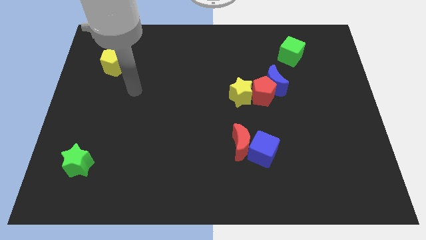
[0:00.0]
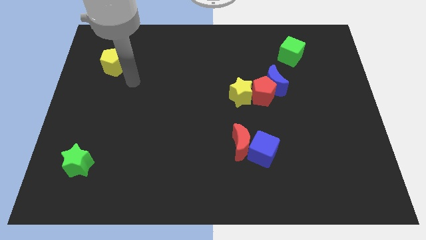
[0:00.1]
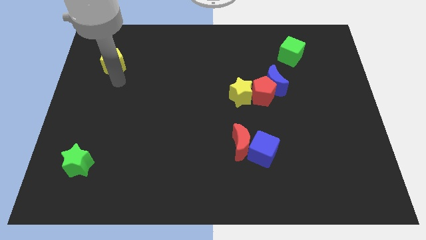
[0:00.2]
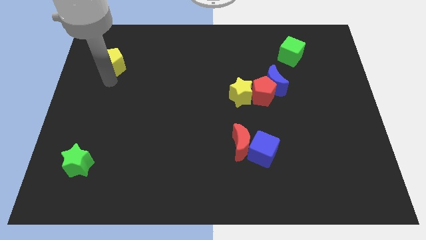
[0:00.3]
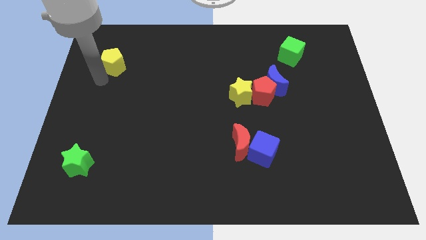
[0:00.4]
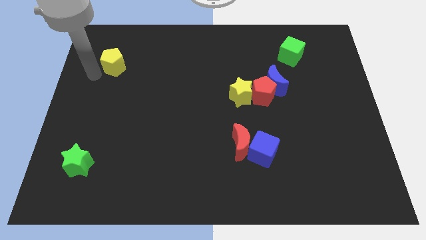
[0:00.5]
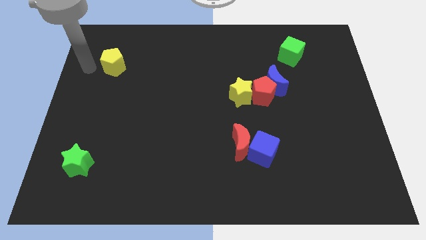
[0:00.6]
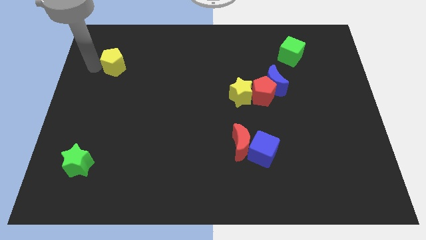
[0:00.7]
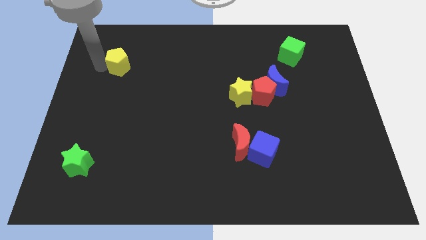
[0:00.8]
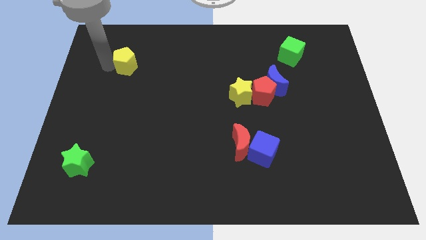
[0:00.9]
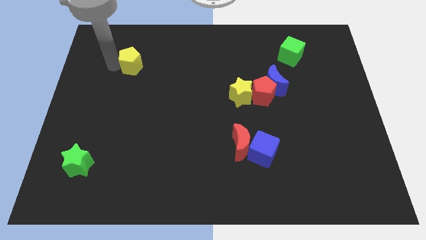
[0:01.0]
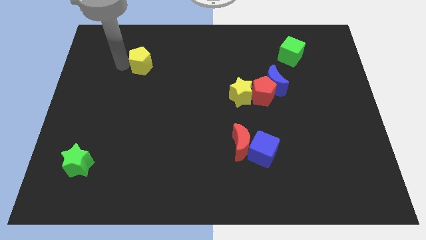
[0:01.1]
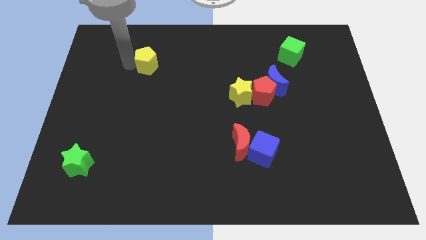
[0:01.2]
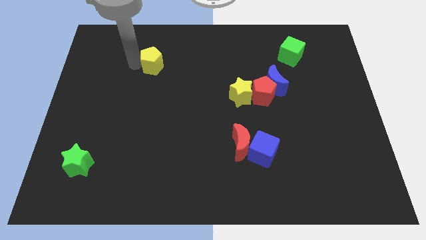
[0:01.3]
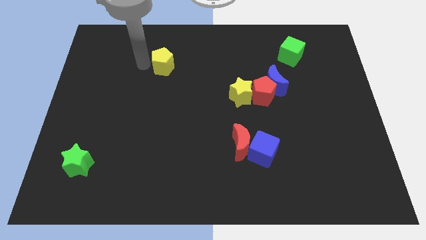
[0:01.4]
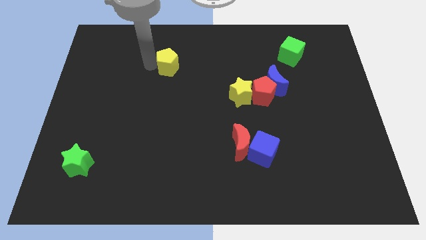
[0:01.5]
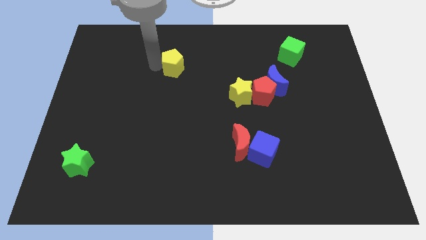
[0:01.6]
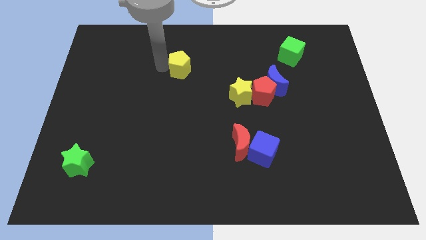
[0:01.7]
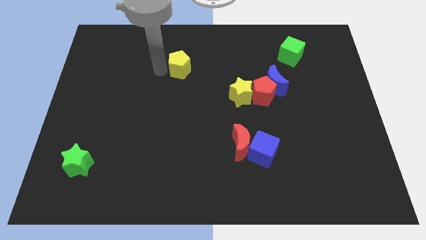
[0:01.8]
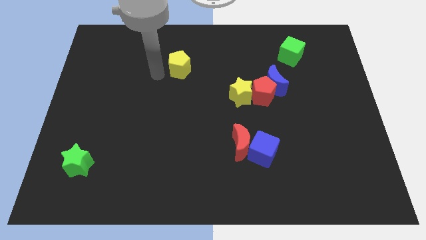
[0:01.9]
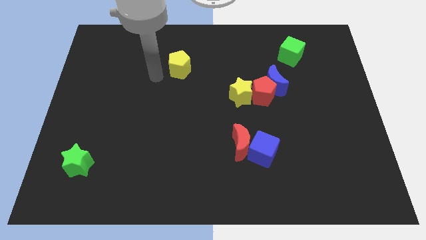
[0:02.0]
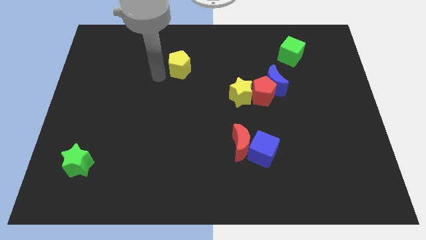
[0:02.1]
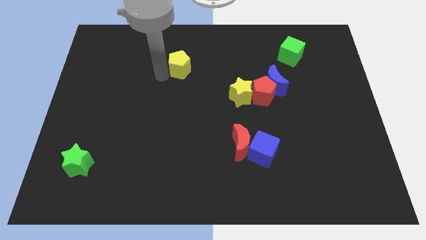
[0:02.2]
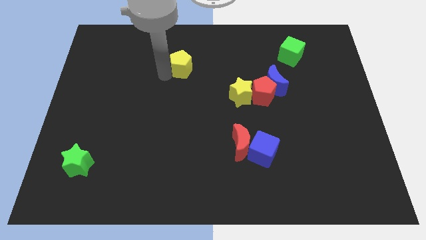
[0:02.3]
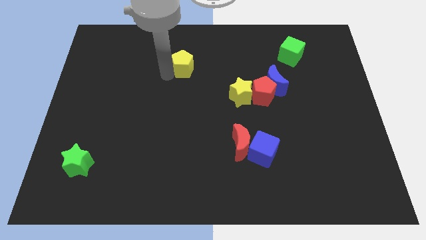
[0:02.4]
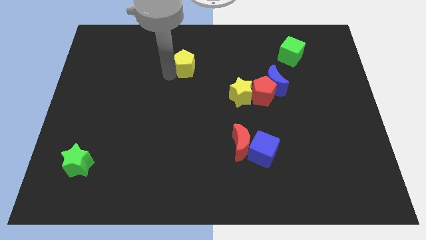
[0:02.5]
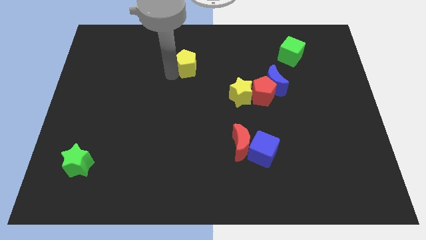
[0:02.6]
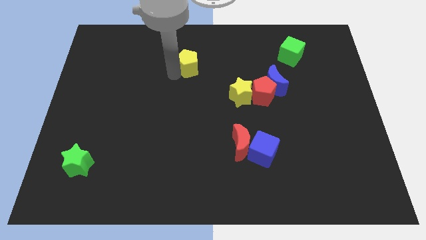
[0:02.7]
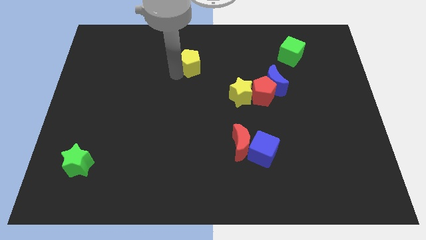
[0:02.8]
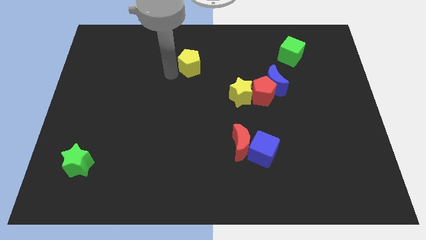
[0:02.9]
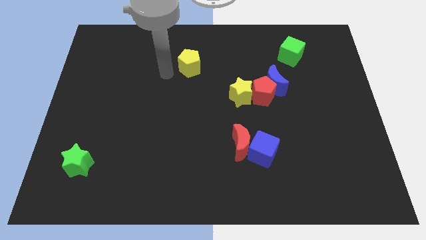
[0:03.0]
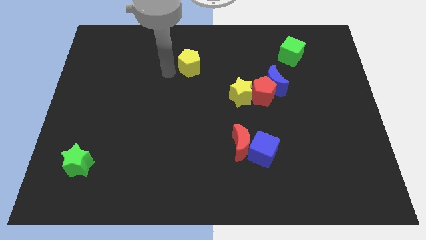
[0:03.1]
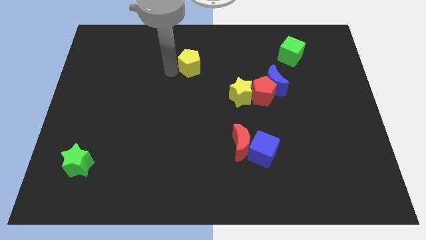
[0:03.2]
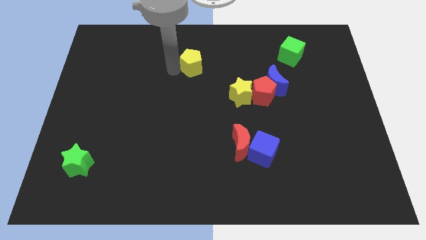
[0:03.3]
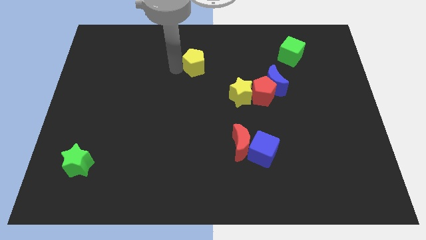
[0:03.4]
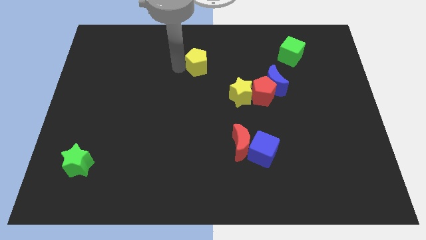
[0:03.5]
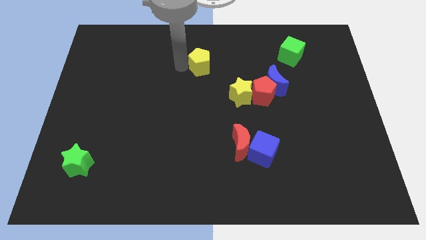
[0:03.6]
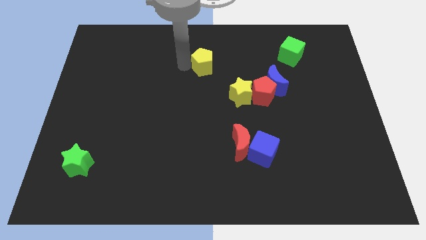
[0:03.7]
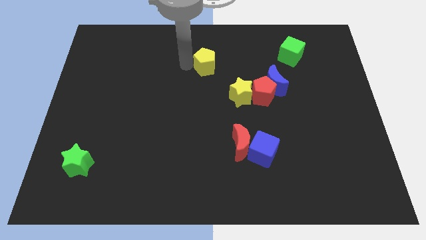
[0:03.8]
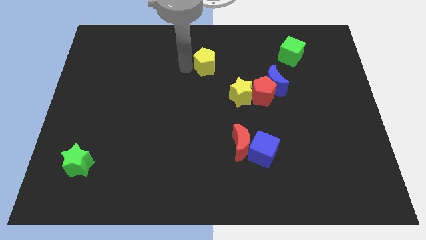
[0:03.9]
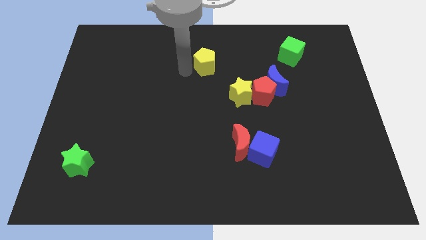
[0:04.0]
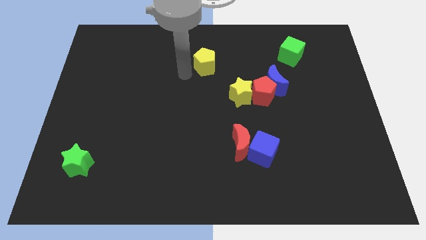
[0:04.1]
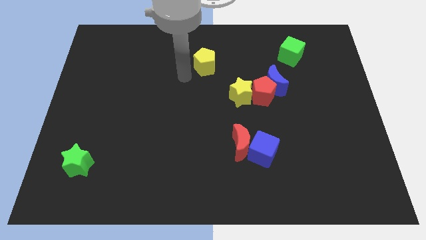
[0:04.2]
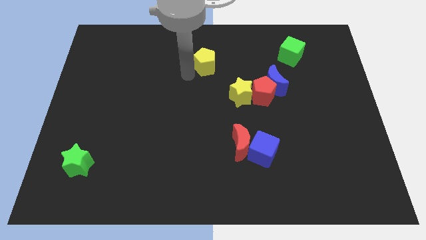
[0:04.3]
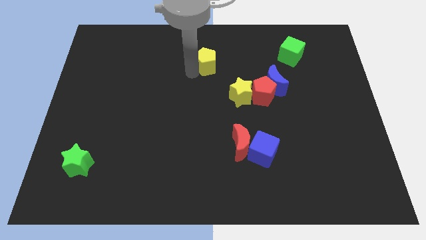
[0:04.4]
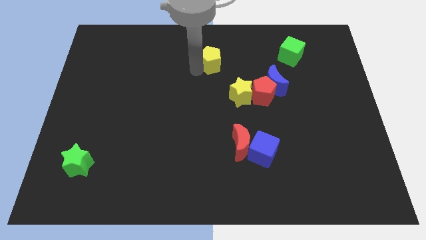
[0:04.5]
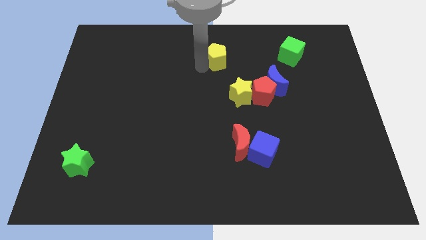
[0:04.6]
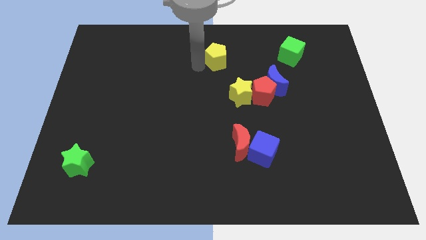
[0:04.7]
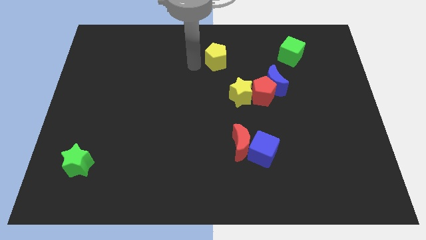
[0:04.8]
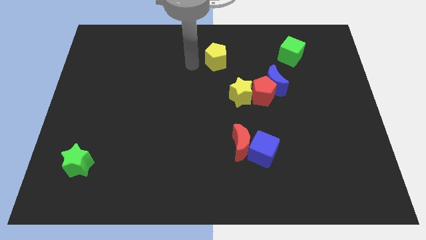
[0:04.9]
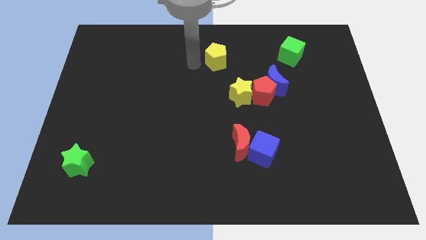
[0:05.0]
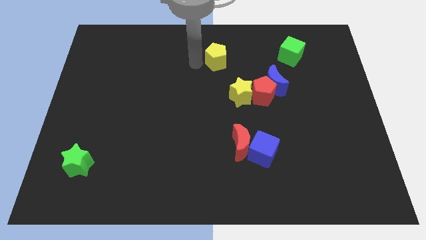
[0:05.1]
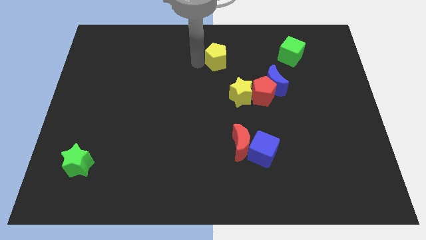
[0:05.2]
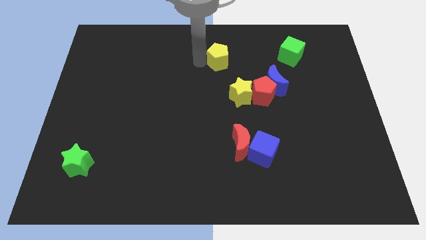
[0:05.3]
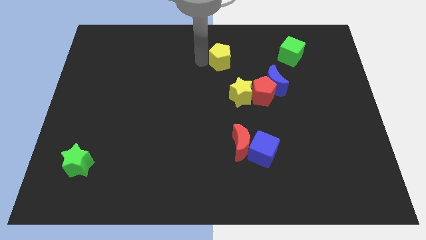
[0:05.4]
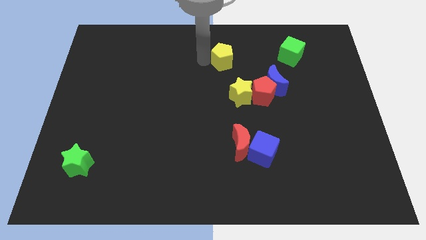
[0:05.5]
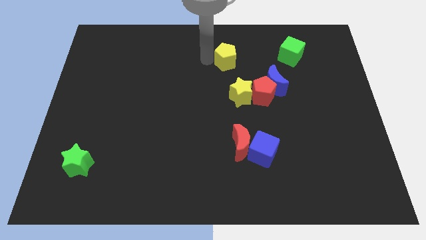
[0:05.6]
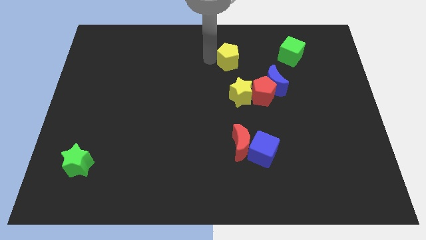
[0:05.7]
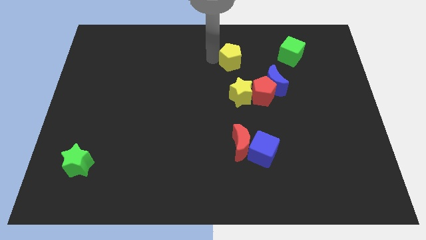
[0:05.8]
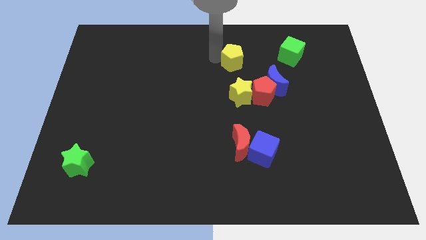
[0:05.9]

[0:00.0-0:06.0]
push the yellow pentagon just left of the green cube

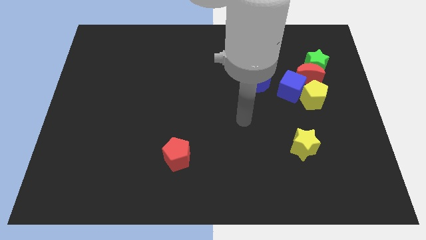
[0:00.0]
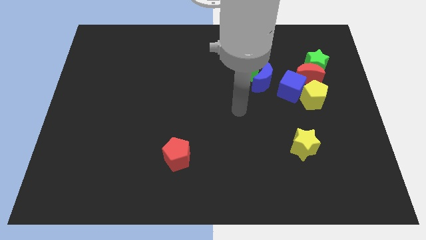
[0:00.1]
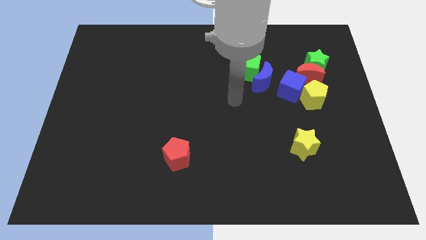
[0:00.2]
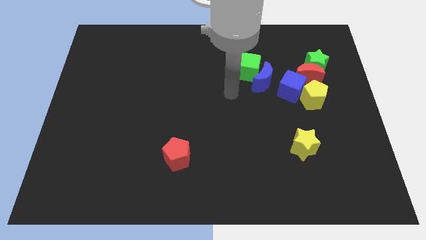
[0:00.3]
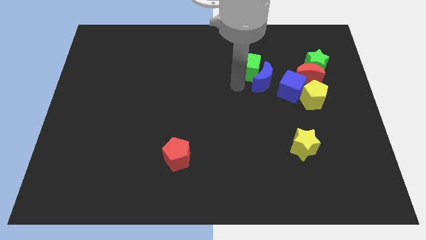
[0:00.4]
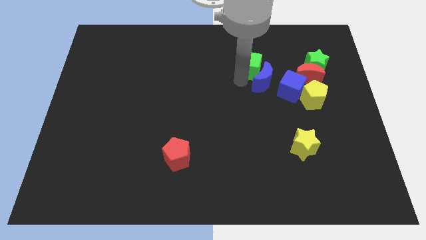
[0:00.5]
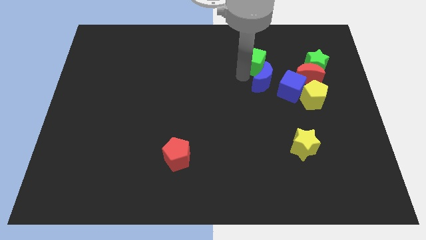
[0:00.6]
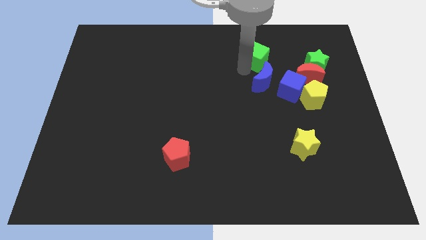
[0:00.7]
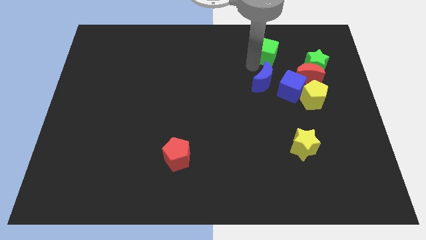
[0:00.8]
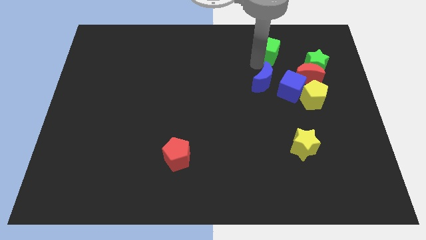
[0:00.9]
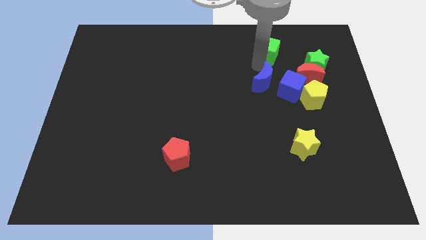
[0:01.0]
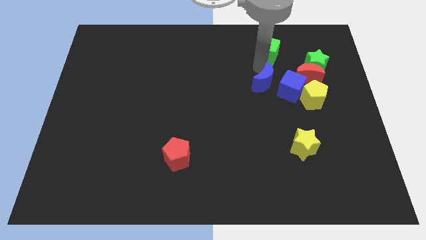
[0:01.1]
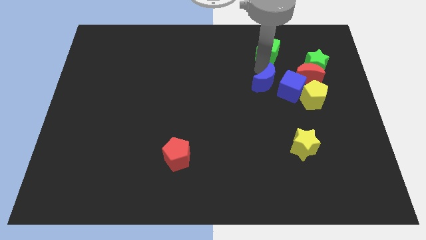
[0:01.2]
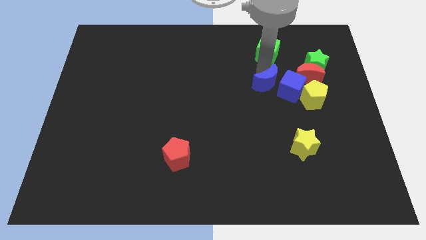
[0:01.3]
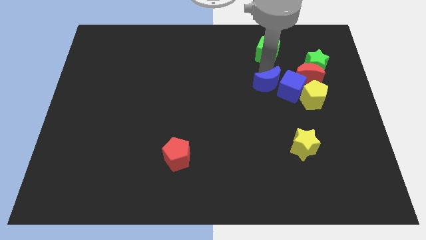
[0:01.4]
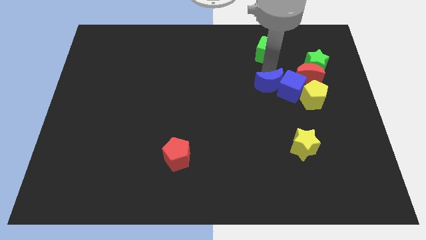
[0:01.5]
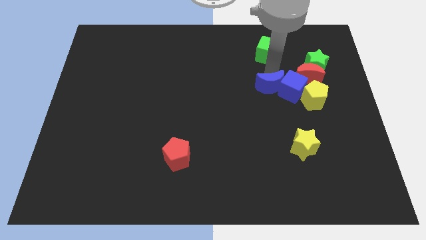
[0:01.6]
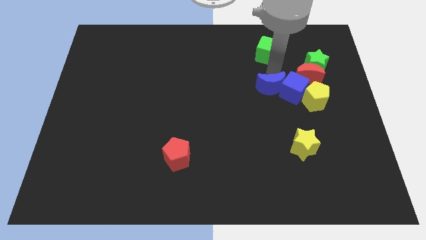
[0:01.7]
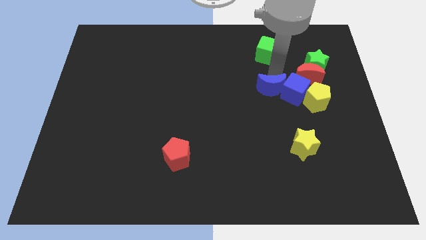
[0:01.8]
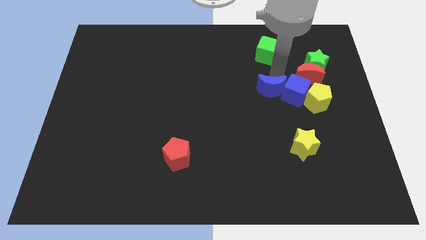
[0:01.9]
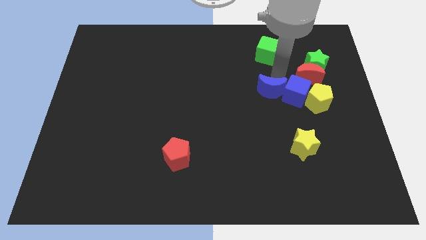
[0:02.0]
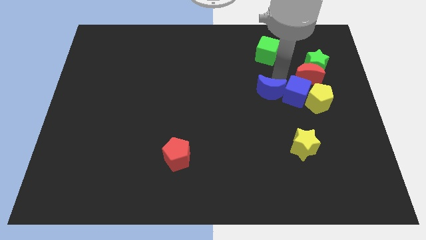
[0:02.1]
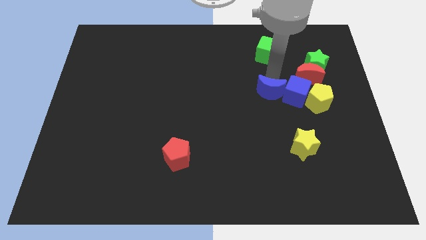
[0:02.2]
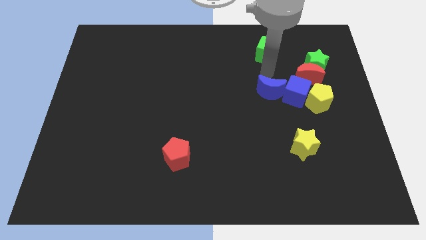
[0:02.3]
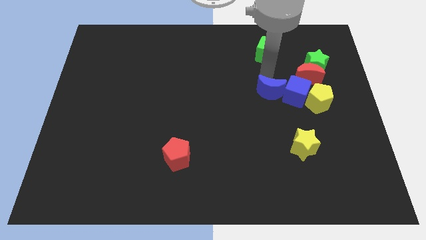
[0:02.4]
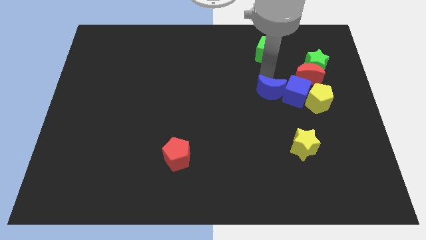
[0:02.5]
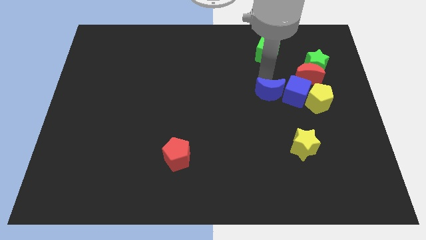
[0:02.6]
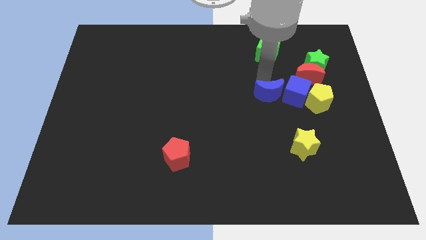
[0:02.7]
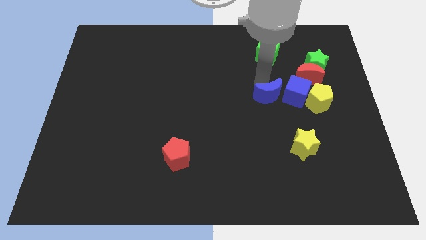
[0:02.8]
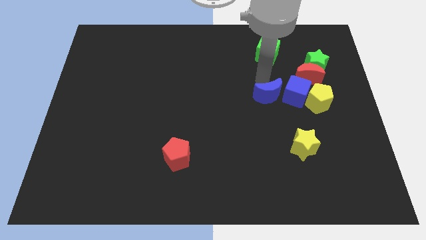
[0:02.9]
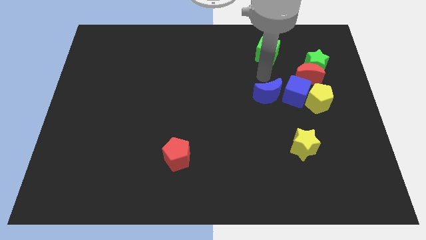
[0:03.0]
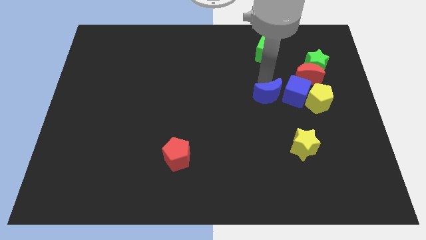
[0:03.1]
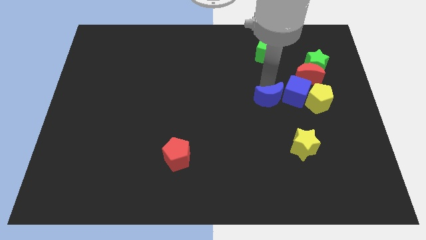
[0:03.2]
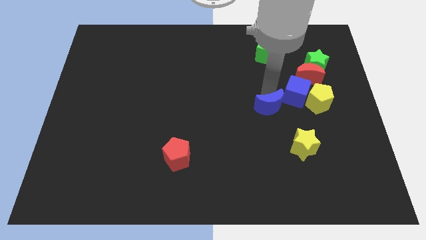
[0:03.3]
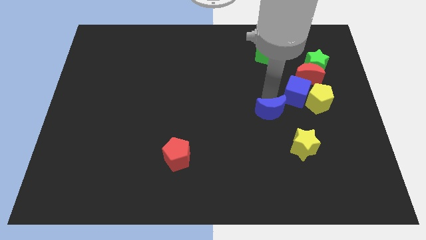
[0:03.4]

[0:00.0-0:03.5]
push the blue moon to the top left of the yellow star
